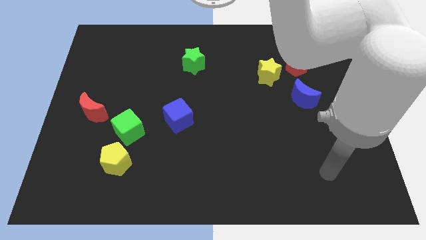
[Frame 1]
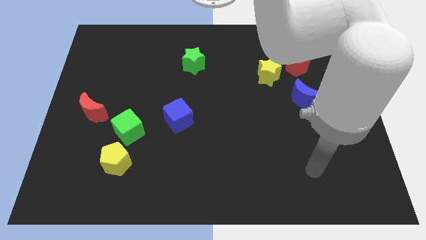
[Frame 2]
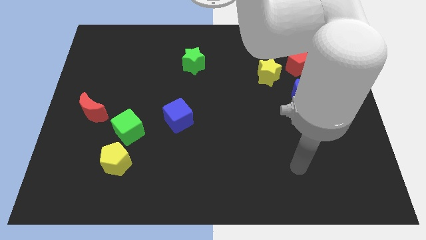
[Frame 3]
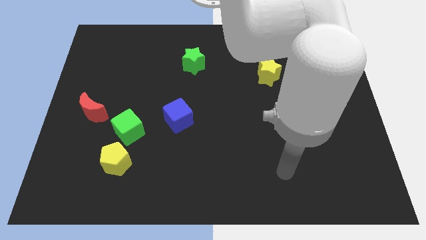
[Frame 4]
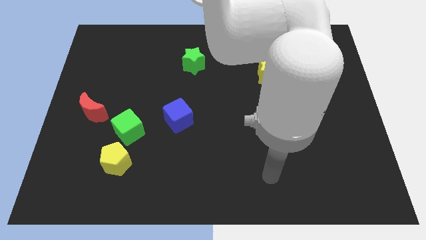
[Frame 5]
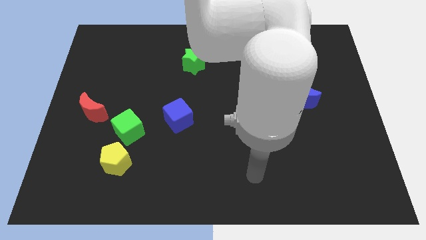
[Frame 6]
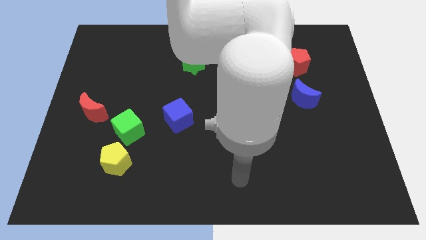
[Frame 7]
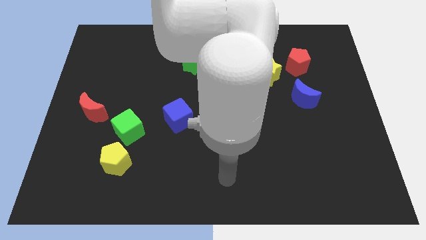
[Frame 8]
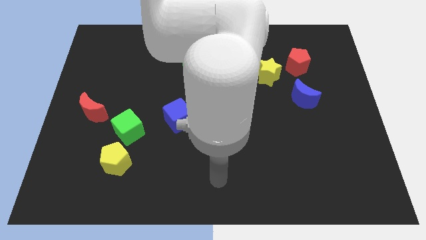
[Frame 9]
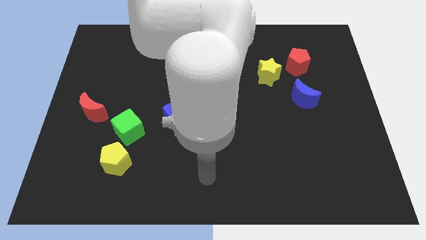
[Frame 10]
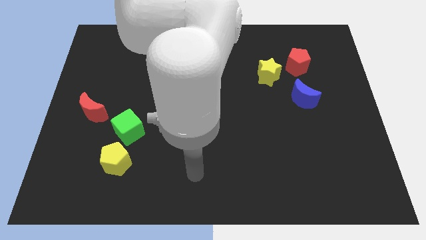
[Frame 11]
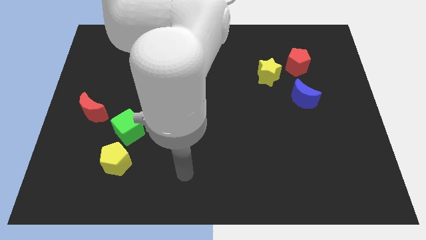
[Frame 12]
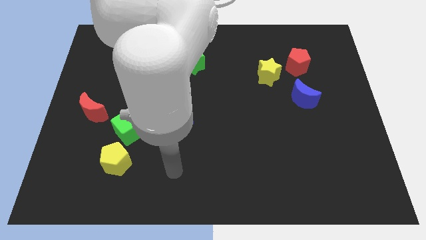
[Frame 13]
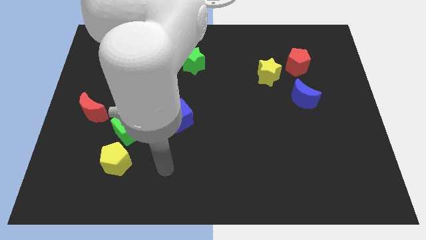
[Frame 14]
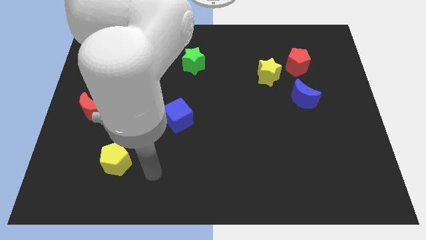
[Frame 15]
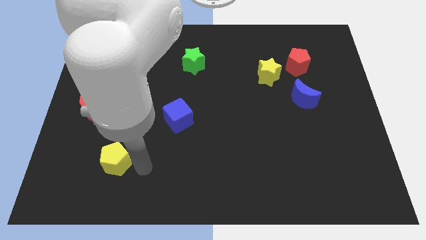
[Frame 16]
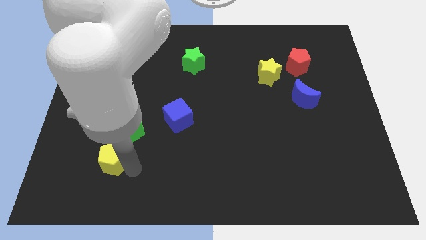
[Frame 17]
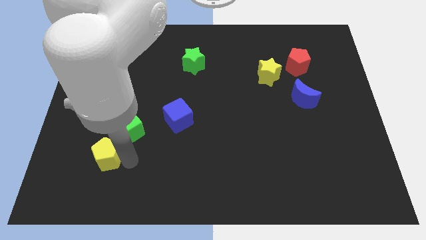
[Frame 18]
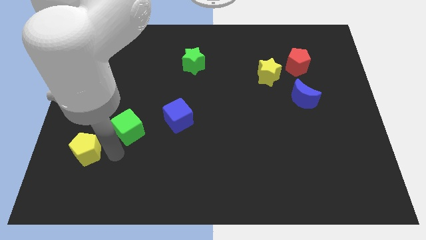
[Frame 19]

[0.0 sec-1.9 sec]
move the green cube away from the yellow pentagon

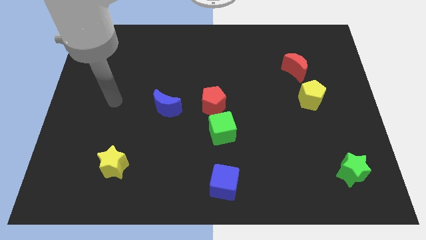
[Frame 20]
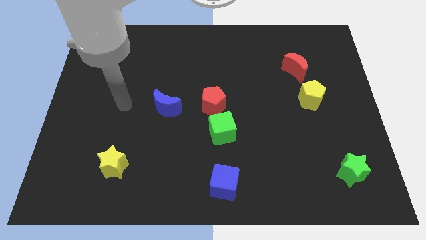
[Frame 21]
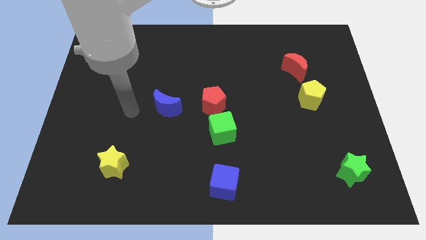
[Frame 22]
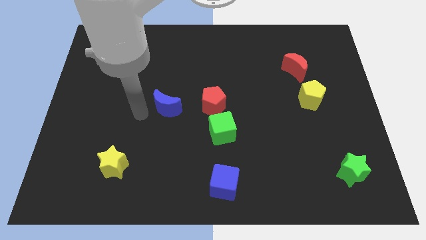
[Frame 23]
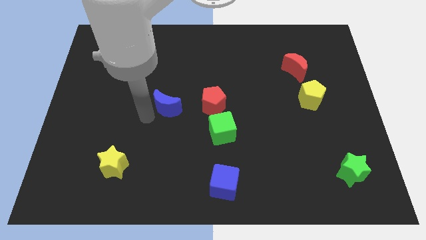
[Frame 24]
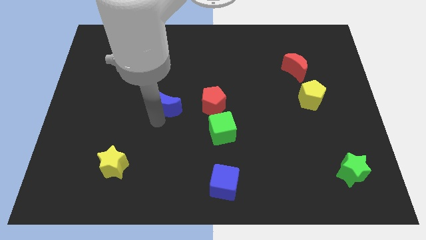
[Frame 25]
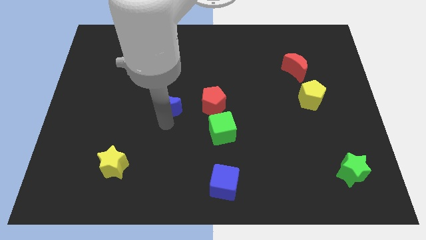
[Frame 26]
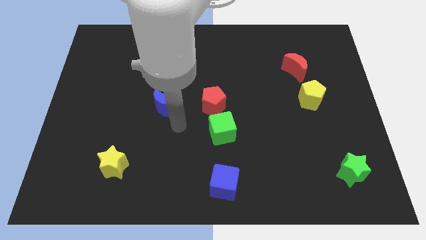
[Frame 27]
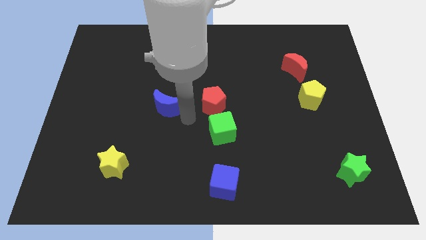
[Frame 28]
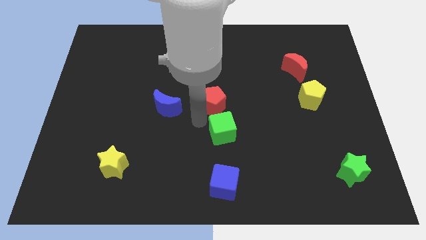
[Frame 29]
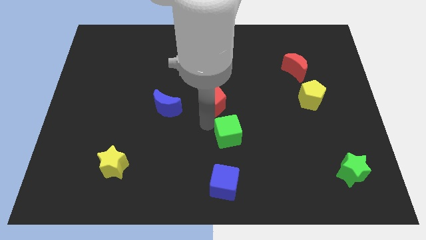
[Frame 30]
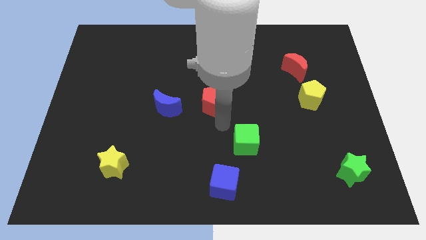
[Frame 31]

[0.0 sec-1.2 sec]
separate the red pentagon from the green cube

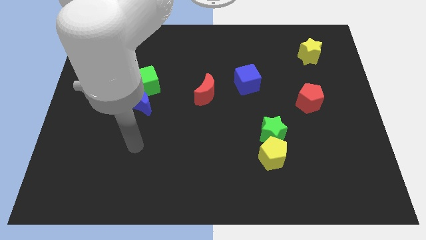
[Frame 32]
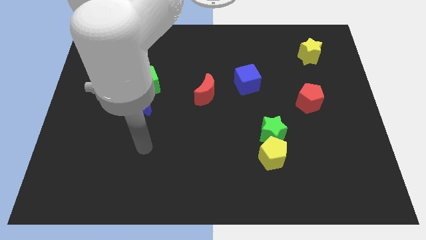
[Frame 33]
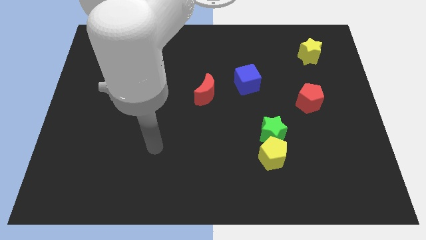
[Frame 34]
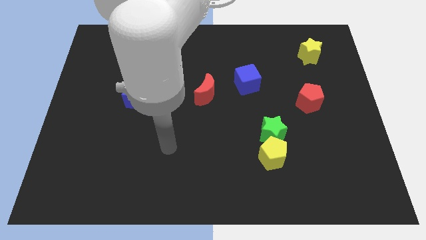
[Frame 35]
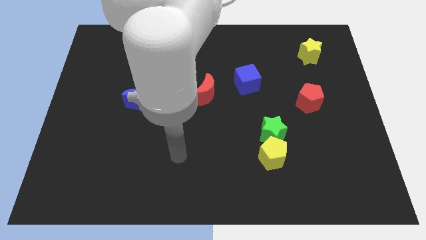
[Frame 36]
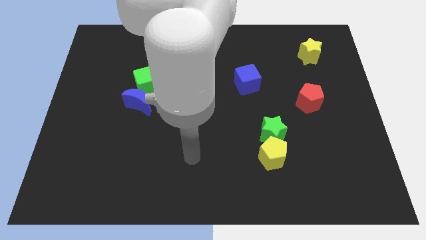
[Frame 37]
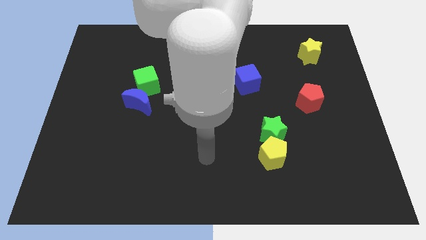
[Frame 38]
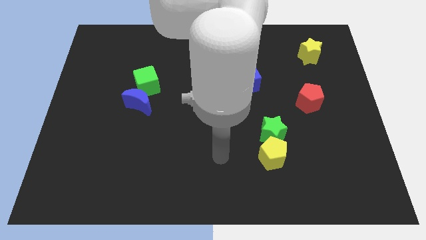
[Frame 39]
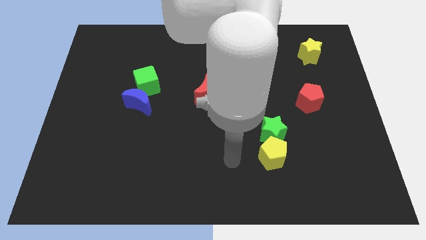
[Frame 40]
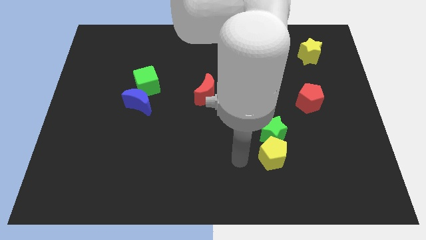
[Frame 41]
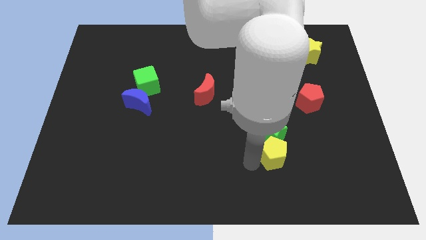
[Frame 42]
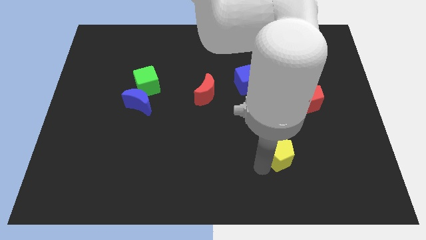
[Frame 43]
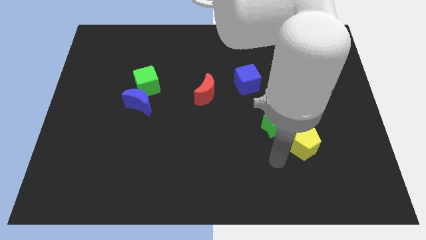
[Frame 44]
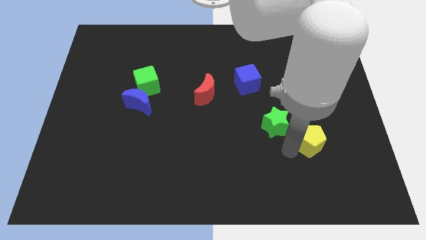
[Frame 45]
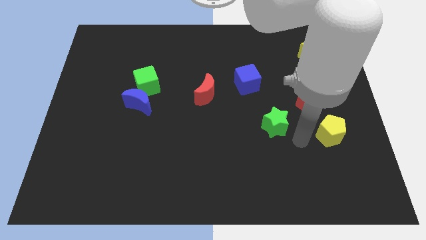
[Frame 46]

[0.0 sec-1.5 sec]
move the green star away from the yellow pentagon

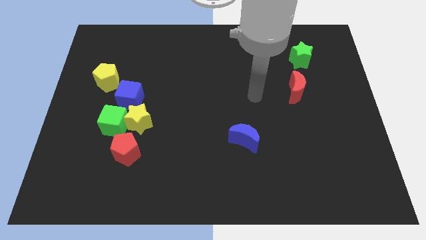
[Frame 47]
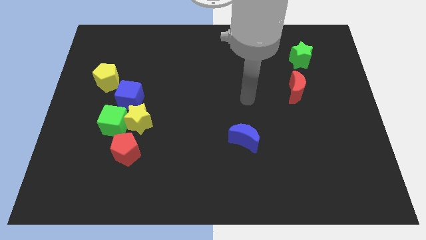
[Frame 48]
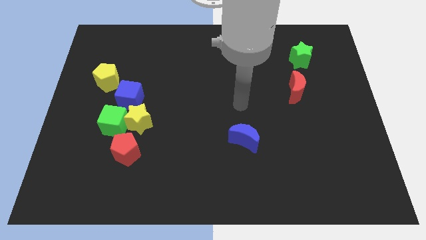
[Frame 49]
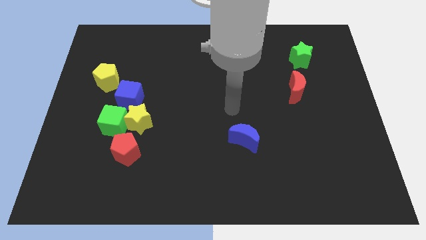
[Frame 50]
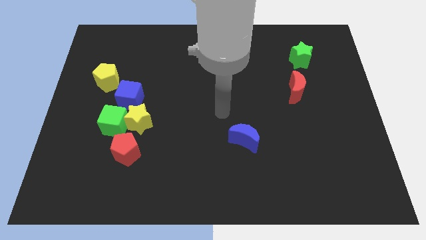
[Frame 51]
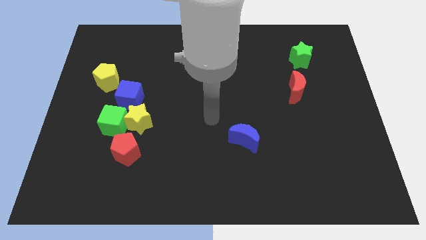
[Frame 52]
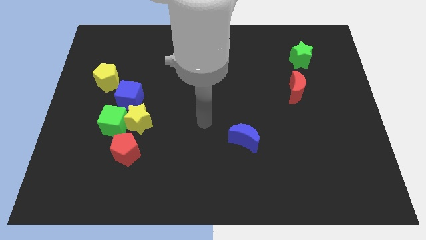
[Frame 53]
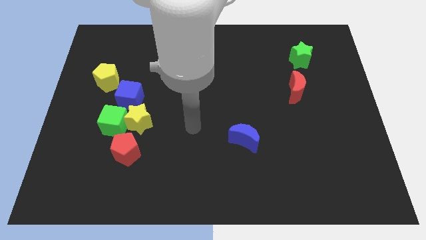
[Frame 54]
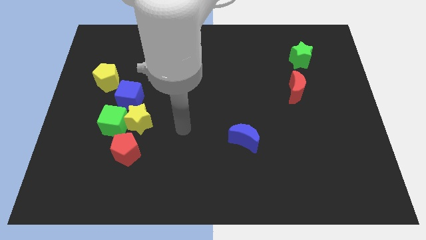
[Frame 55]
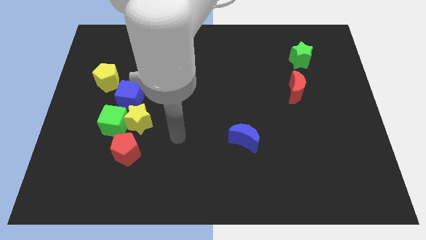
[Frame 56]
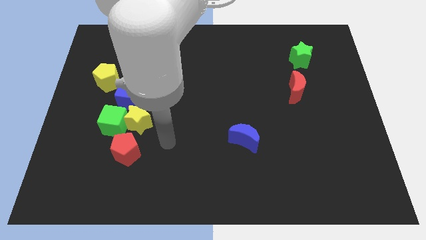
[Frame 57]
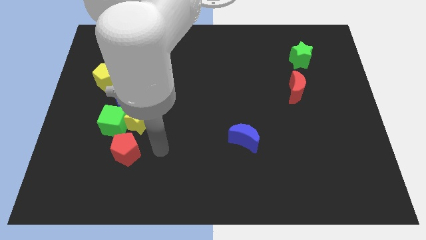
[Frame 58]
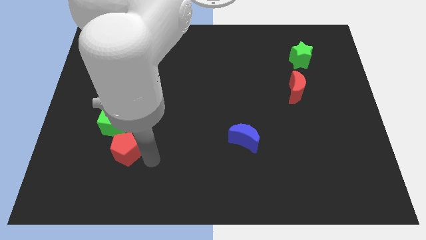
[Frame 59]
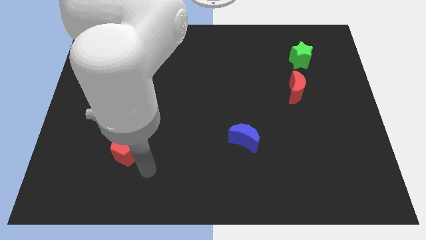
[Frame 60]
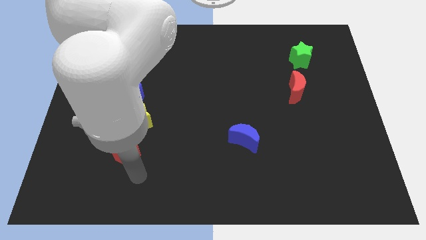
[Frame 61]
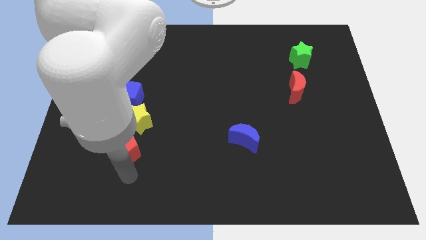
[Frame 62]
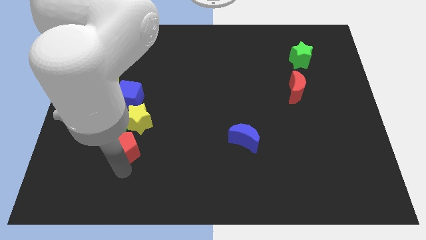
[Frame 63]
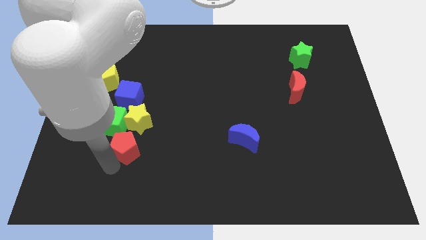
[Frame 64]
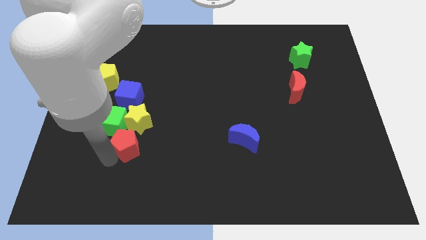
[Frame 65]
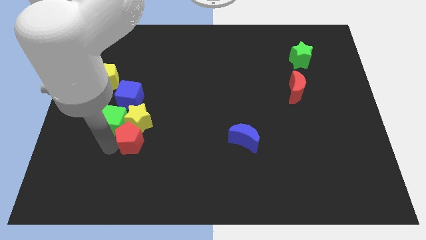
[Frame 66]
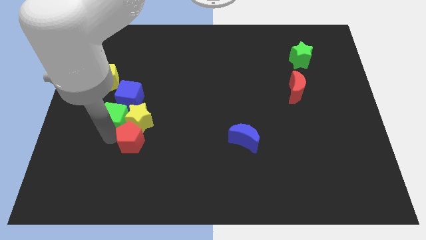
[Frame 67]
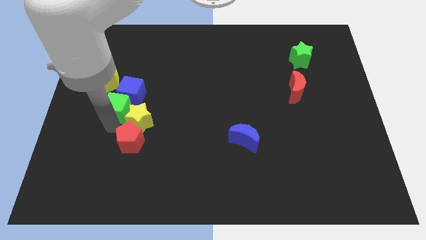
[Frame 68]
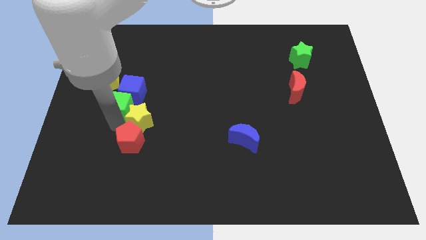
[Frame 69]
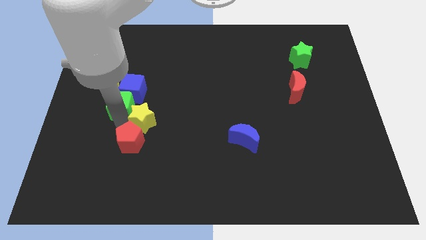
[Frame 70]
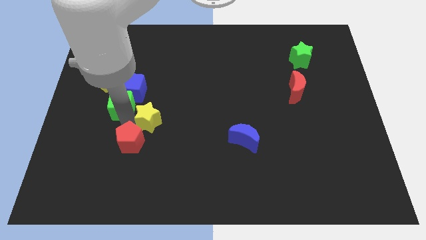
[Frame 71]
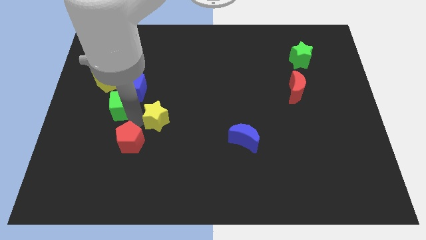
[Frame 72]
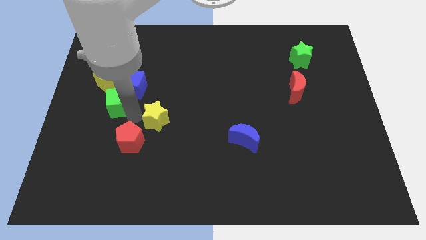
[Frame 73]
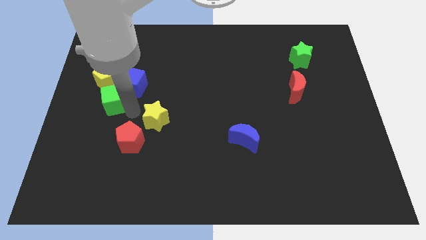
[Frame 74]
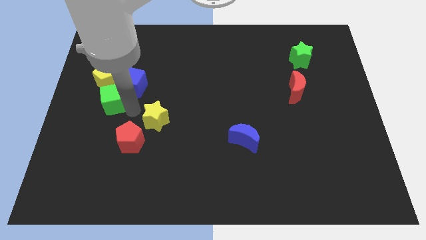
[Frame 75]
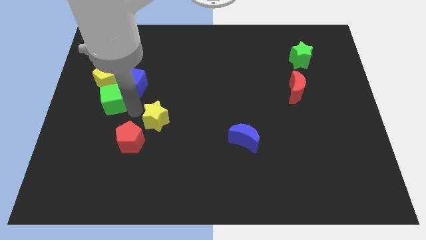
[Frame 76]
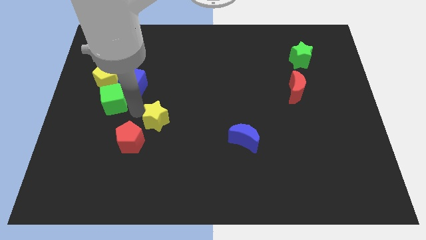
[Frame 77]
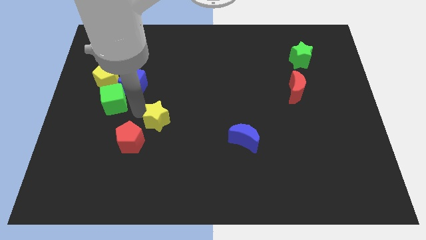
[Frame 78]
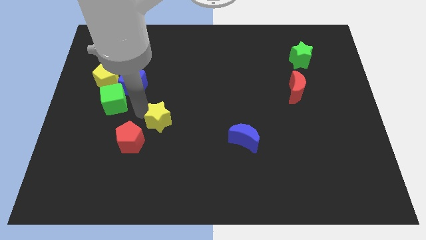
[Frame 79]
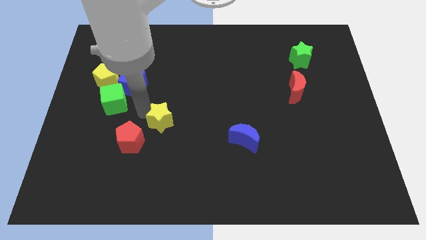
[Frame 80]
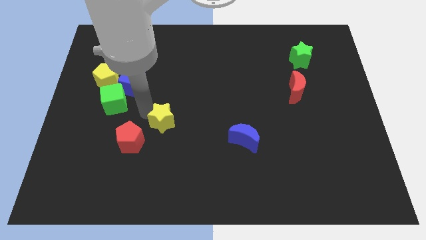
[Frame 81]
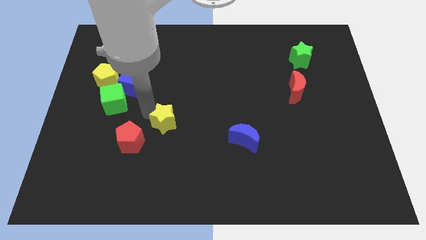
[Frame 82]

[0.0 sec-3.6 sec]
move the yellow star away from the group

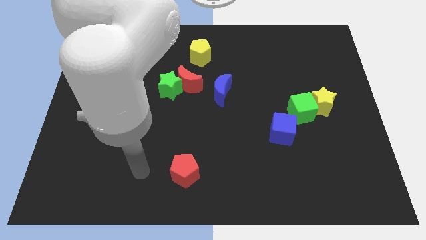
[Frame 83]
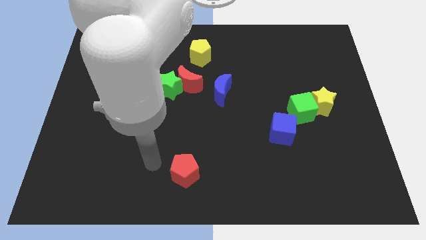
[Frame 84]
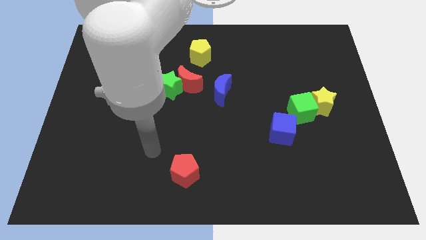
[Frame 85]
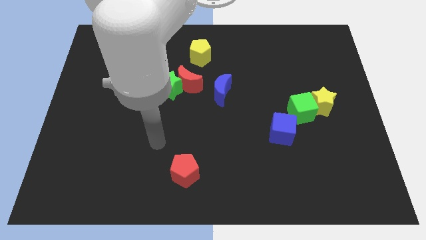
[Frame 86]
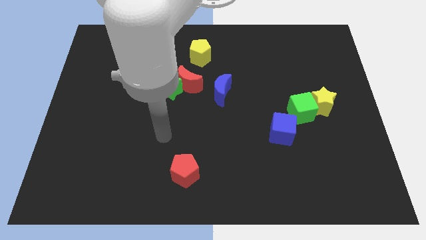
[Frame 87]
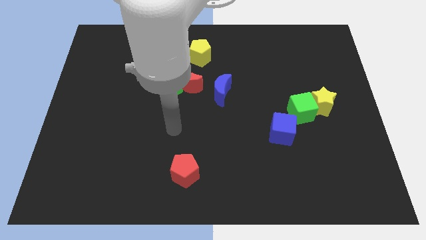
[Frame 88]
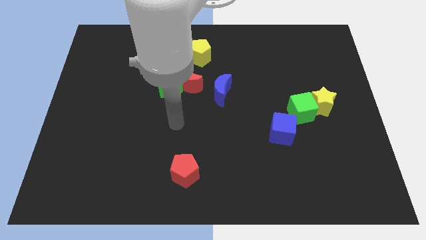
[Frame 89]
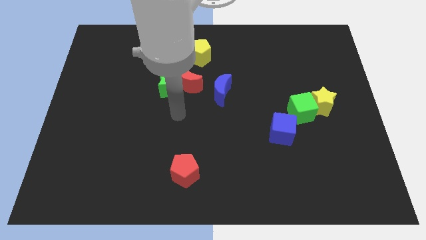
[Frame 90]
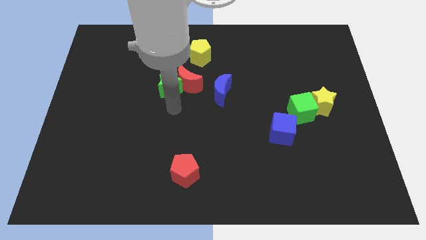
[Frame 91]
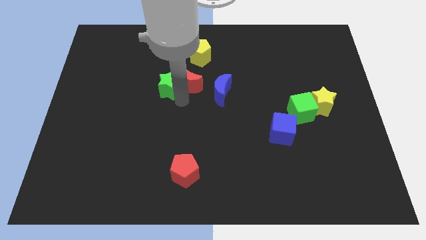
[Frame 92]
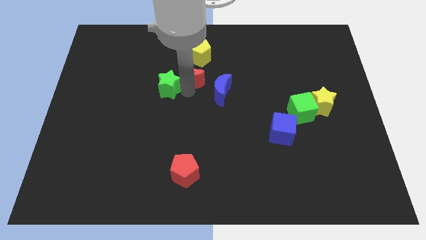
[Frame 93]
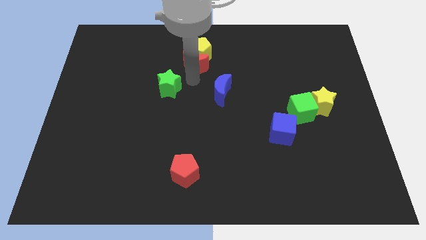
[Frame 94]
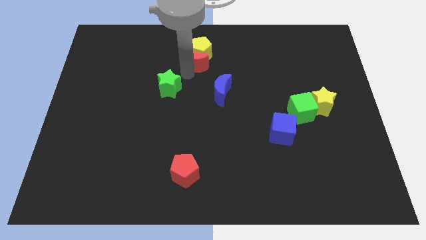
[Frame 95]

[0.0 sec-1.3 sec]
separate the green star from the red moon
